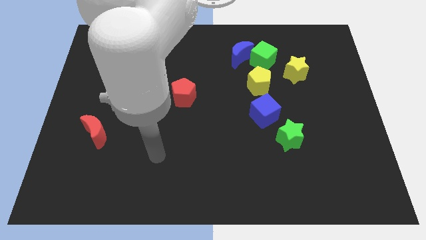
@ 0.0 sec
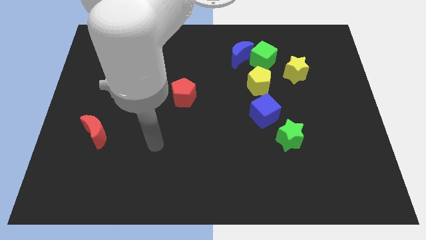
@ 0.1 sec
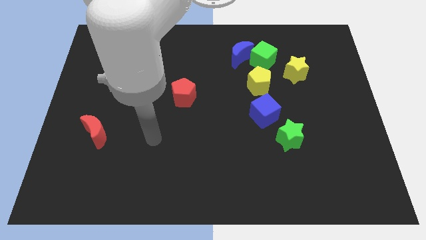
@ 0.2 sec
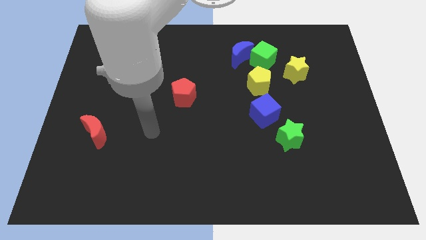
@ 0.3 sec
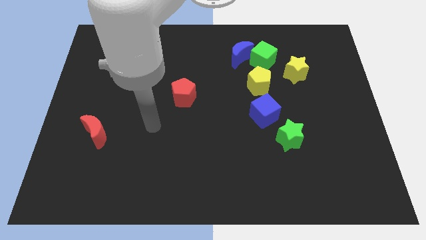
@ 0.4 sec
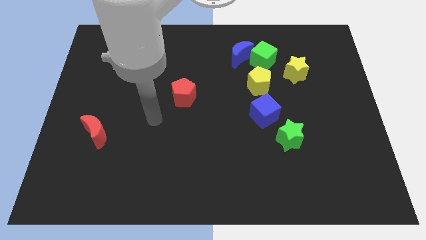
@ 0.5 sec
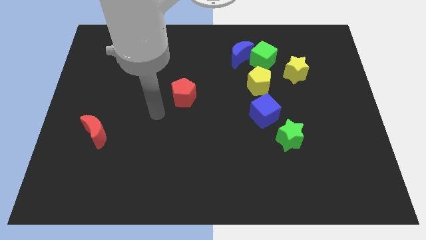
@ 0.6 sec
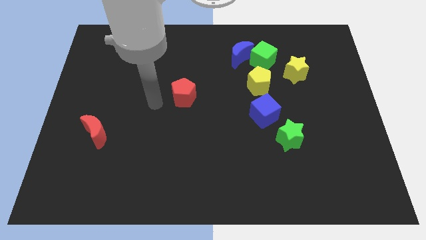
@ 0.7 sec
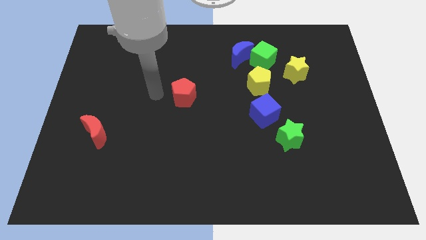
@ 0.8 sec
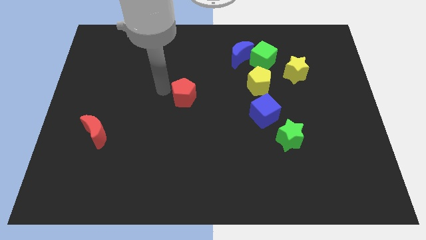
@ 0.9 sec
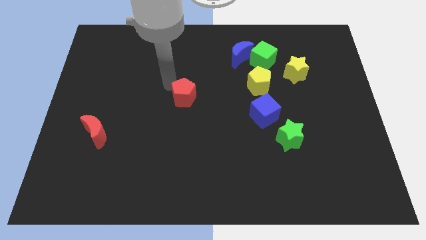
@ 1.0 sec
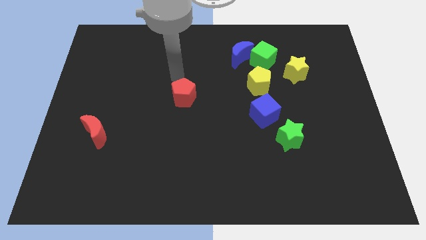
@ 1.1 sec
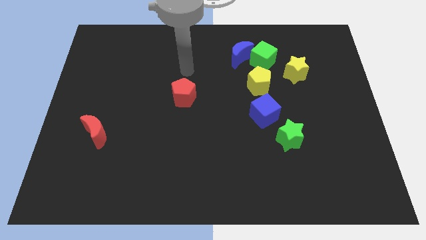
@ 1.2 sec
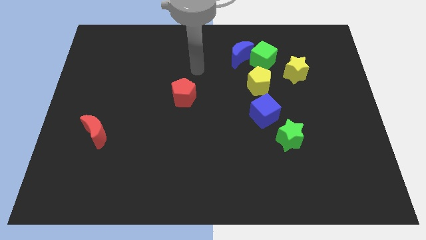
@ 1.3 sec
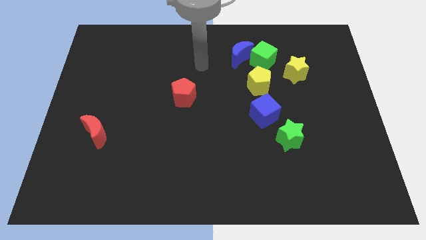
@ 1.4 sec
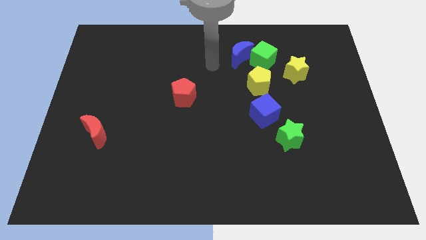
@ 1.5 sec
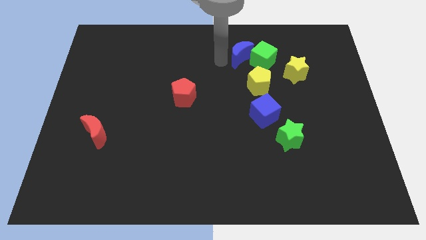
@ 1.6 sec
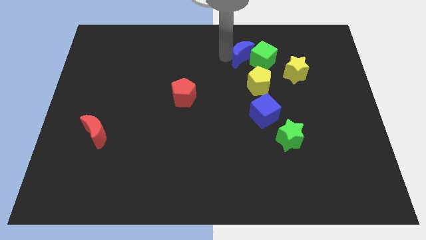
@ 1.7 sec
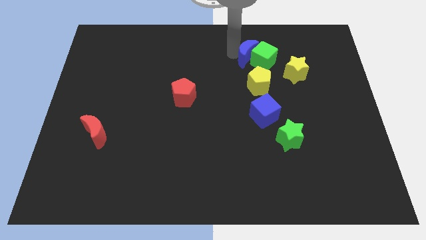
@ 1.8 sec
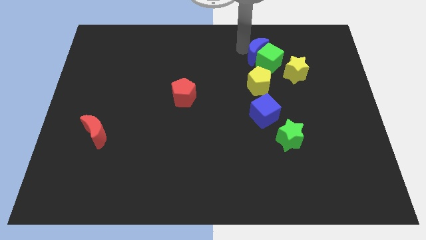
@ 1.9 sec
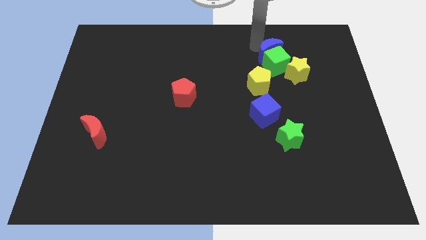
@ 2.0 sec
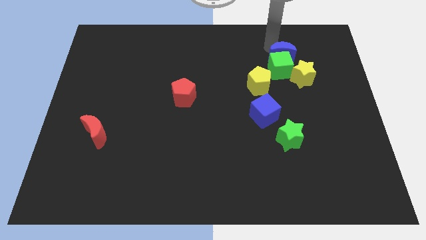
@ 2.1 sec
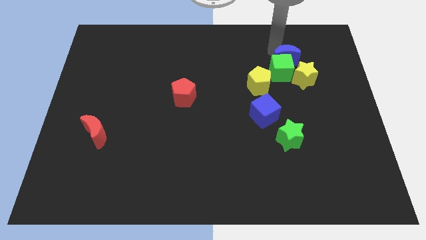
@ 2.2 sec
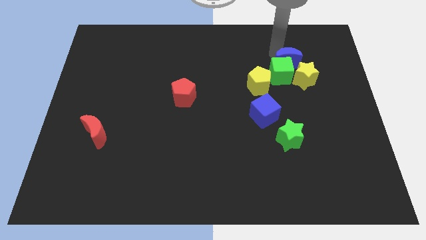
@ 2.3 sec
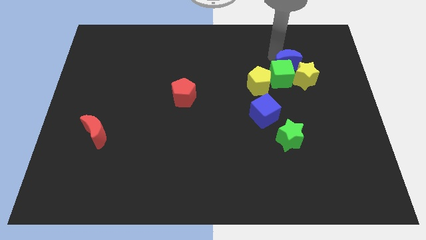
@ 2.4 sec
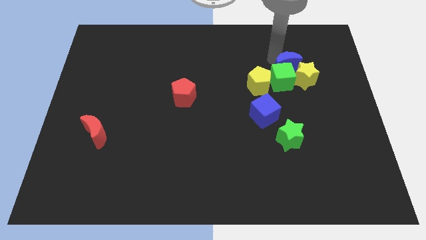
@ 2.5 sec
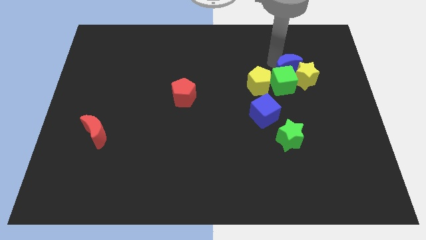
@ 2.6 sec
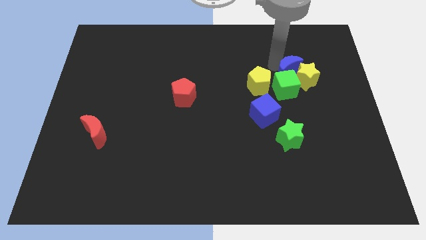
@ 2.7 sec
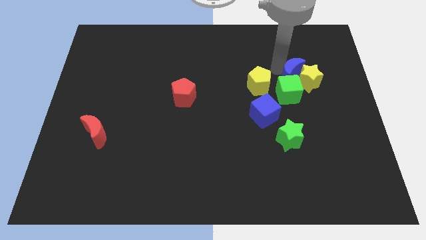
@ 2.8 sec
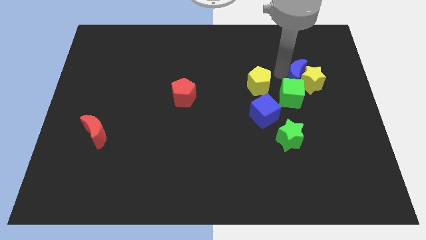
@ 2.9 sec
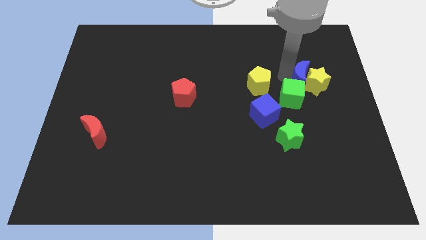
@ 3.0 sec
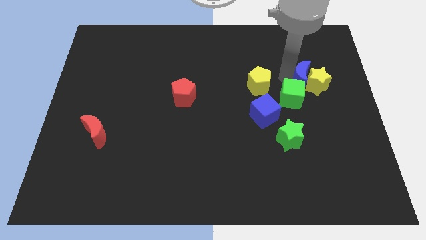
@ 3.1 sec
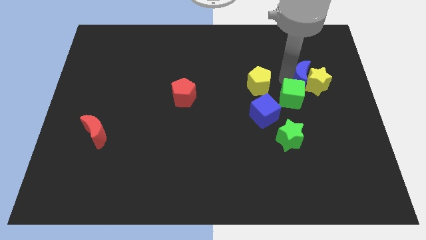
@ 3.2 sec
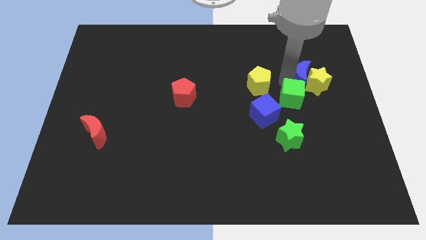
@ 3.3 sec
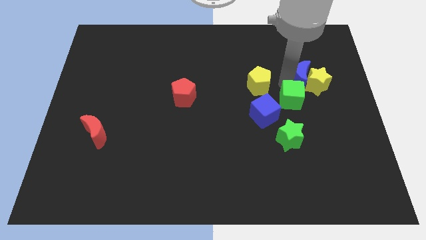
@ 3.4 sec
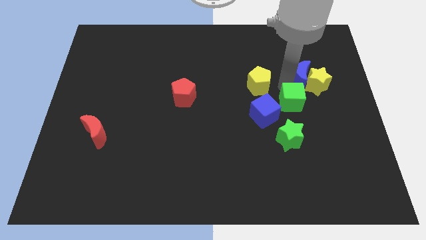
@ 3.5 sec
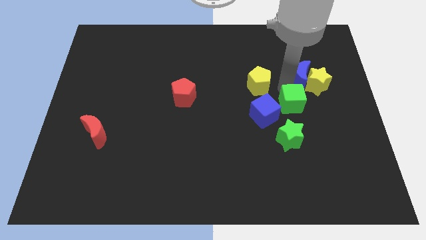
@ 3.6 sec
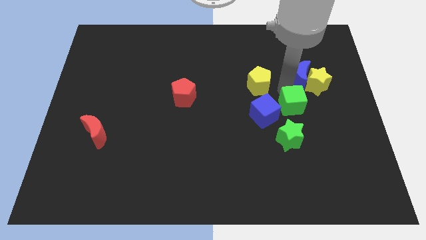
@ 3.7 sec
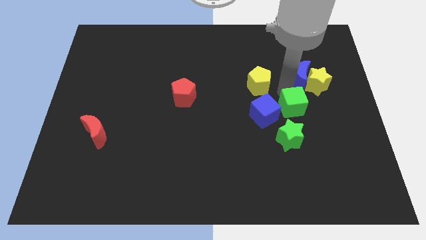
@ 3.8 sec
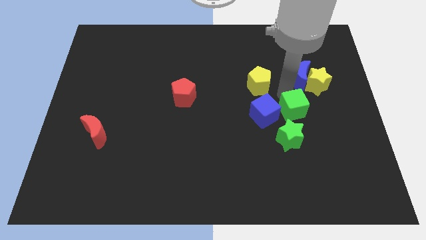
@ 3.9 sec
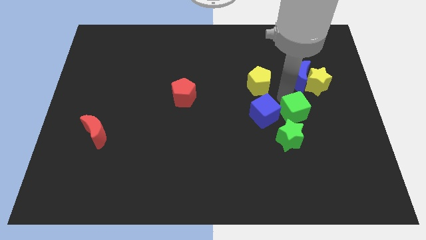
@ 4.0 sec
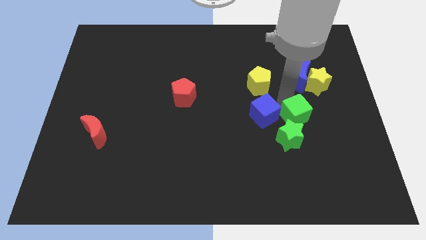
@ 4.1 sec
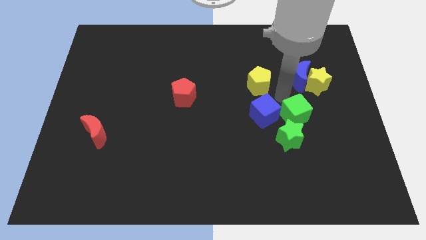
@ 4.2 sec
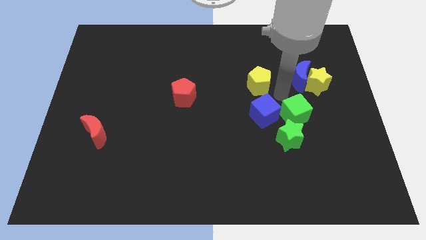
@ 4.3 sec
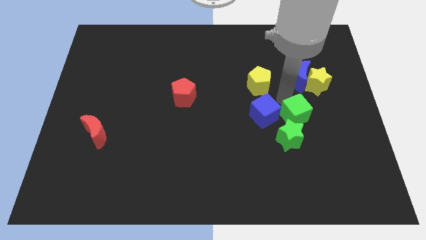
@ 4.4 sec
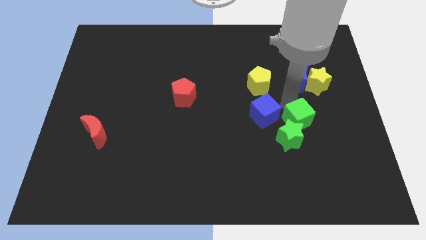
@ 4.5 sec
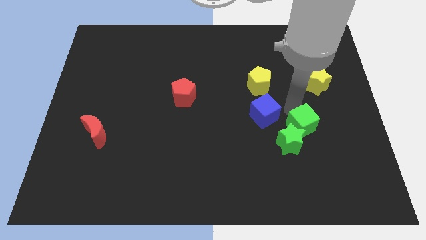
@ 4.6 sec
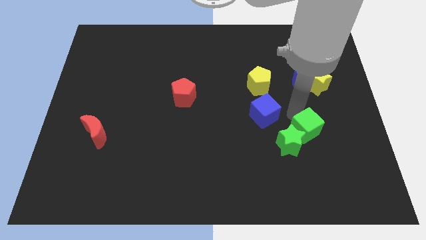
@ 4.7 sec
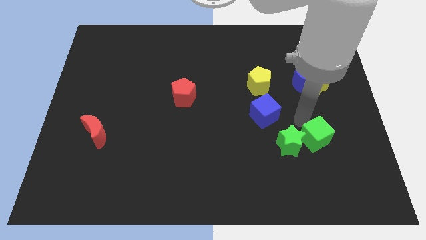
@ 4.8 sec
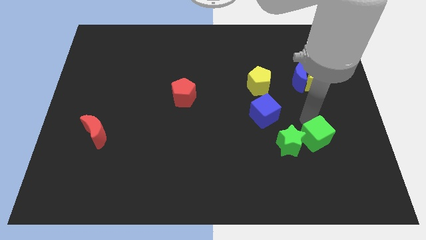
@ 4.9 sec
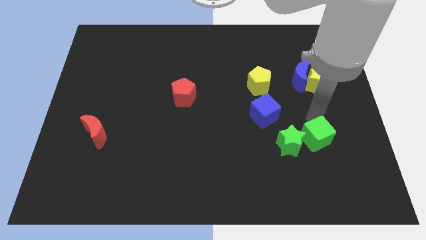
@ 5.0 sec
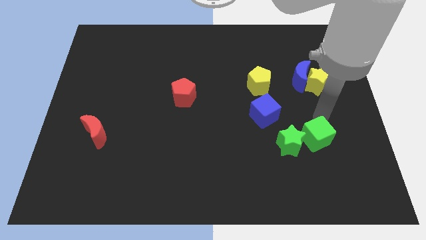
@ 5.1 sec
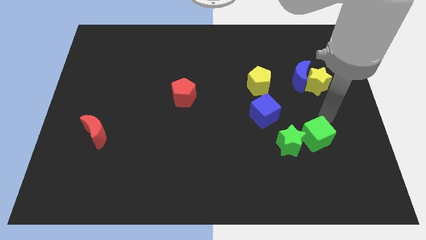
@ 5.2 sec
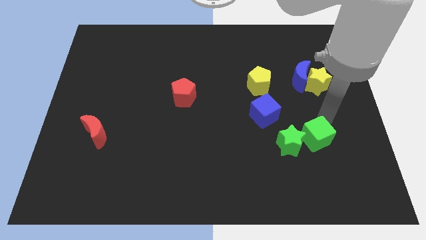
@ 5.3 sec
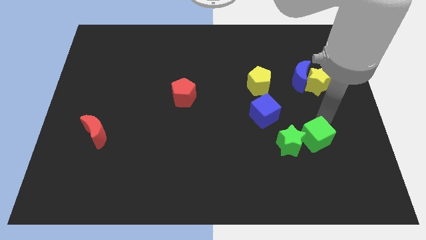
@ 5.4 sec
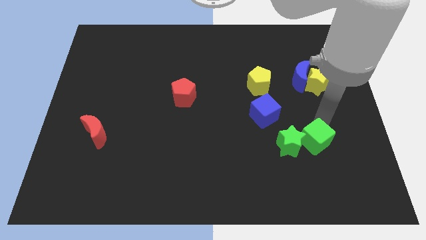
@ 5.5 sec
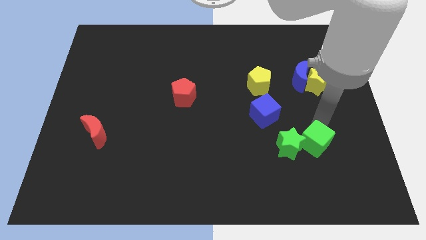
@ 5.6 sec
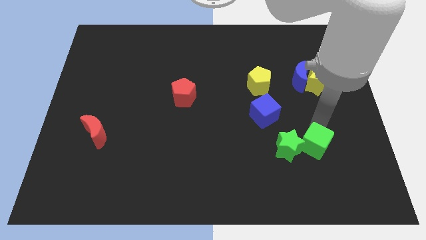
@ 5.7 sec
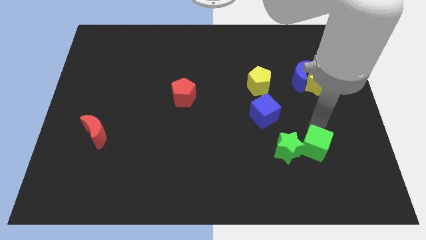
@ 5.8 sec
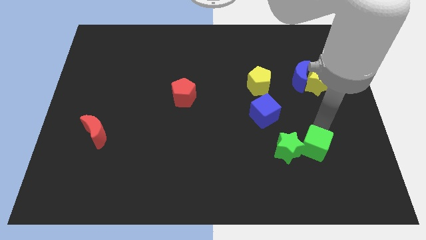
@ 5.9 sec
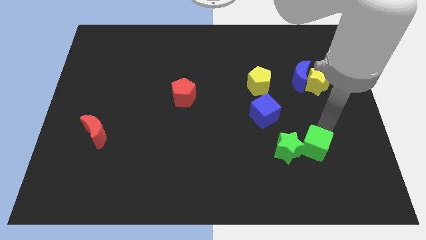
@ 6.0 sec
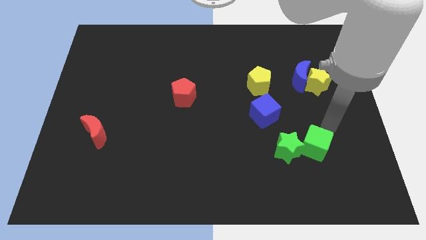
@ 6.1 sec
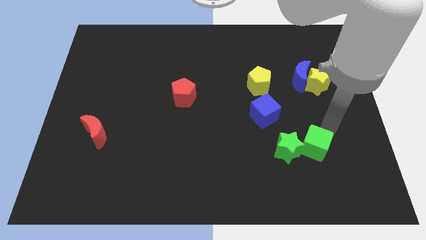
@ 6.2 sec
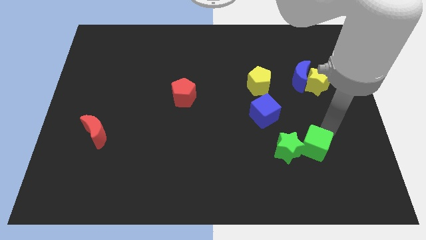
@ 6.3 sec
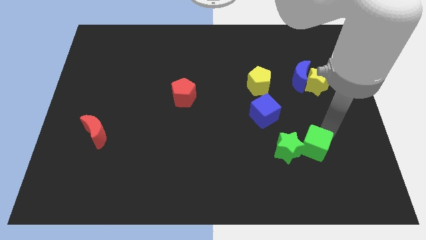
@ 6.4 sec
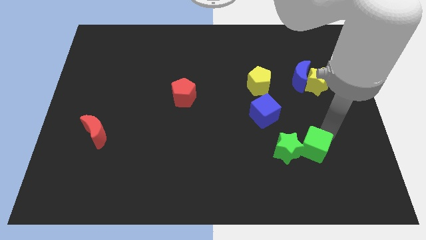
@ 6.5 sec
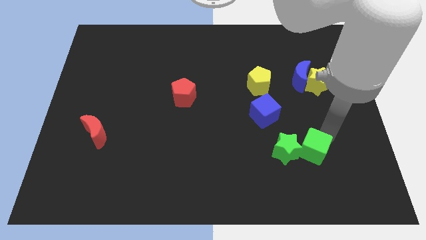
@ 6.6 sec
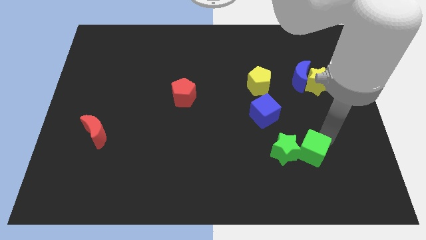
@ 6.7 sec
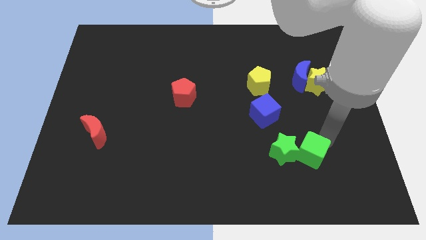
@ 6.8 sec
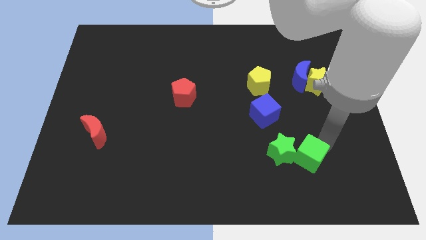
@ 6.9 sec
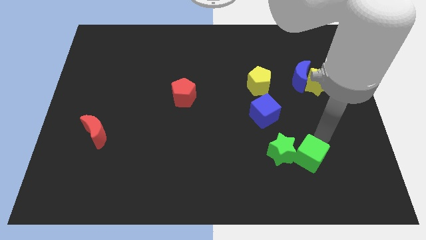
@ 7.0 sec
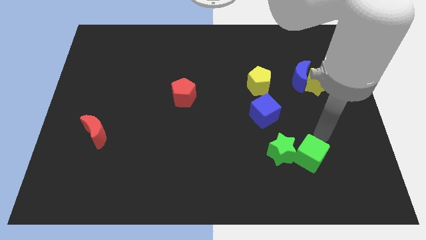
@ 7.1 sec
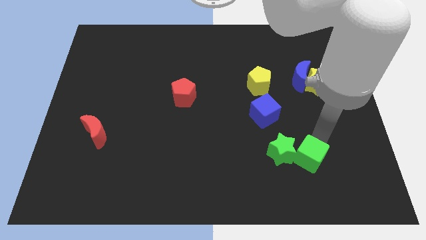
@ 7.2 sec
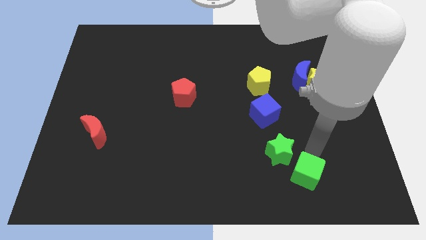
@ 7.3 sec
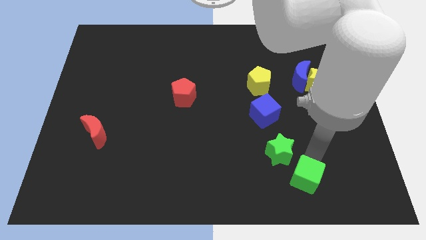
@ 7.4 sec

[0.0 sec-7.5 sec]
put the green cube to the bottom side of the green star
